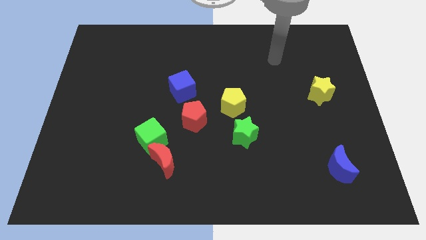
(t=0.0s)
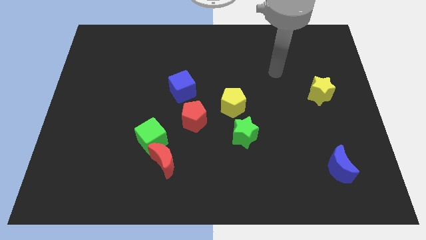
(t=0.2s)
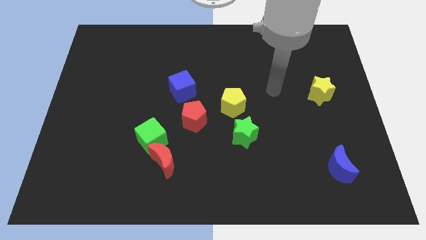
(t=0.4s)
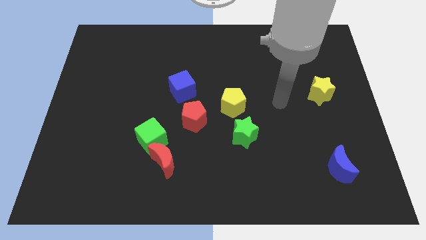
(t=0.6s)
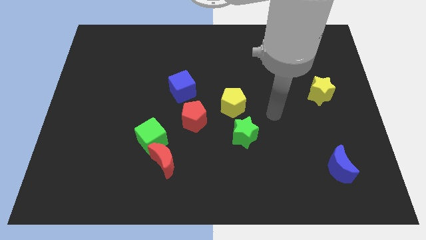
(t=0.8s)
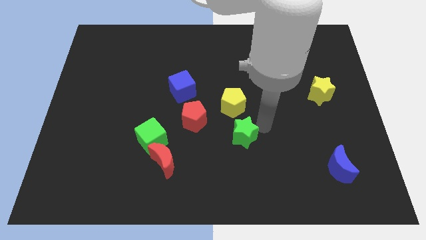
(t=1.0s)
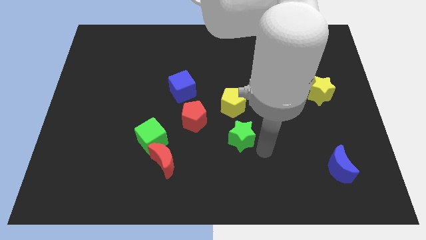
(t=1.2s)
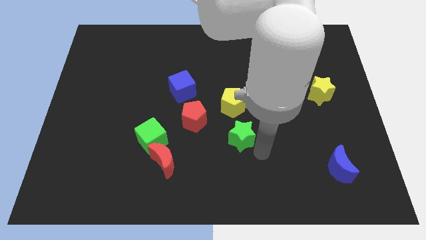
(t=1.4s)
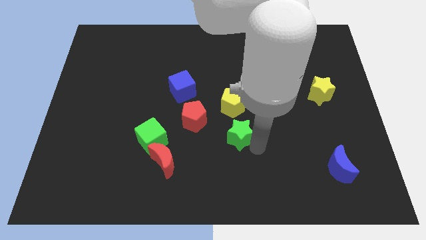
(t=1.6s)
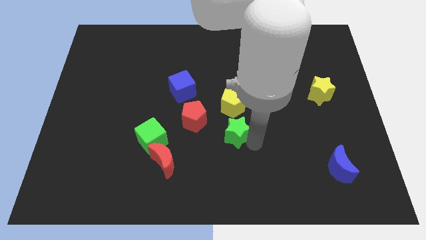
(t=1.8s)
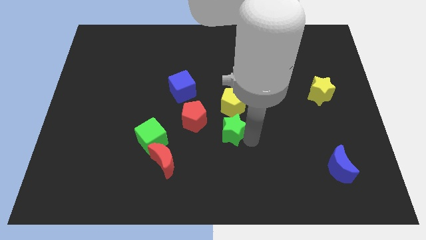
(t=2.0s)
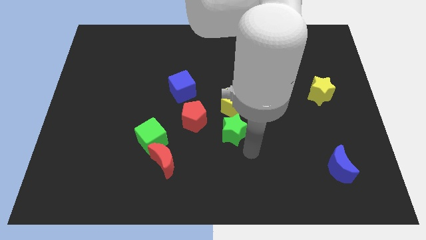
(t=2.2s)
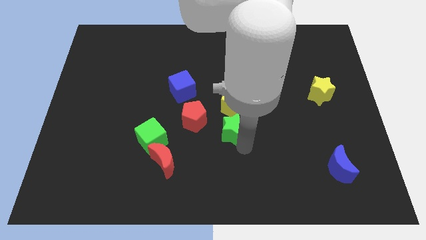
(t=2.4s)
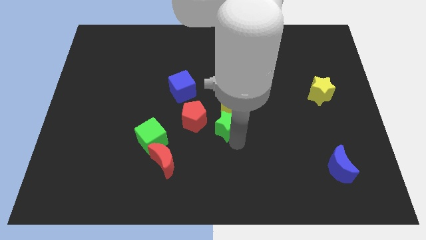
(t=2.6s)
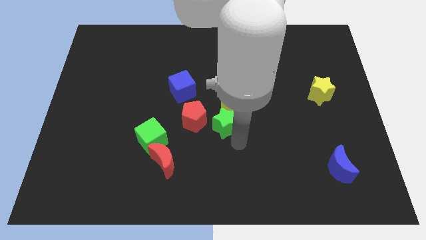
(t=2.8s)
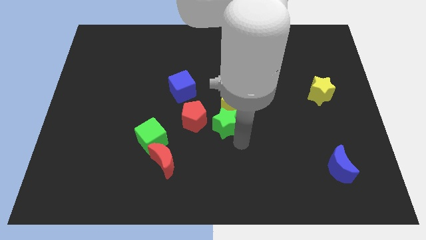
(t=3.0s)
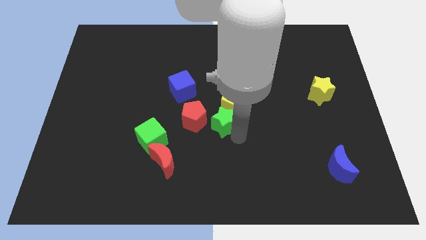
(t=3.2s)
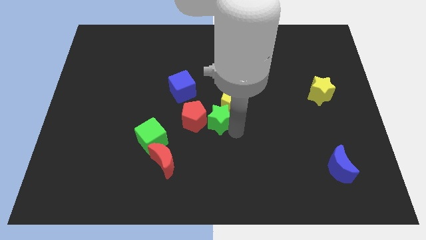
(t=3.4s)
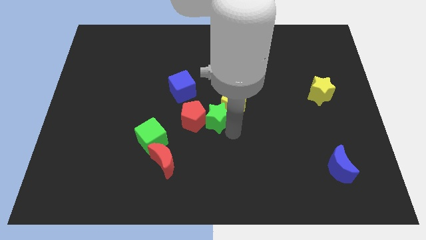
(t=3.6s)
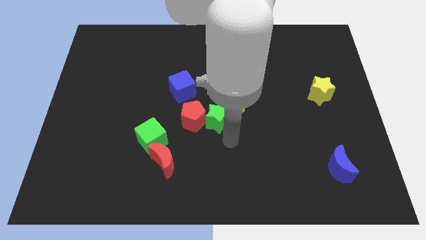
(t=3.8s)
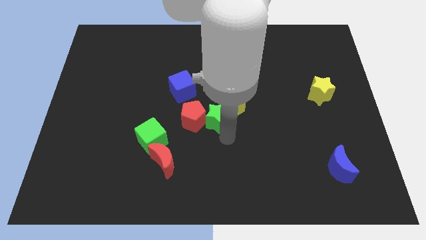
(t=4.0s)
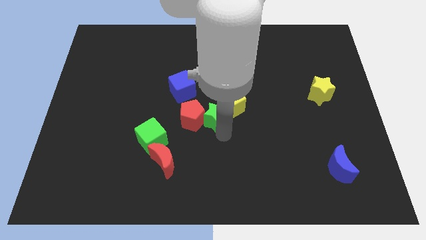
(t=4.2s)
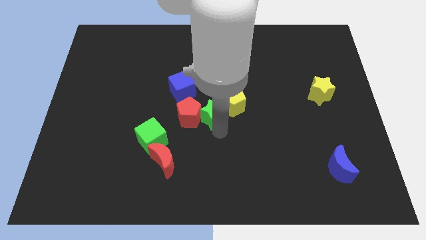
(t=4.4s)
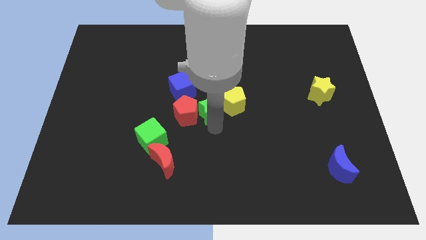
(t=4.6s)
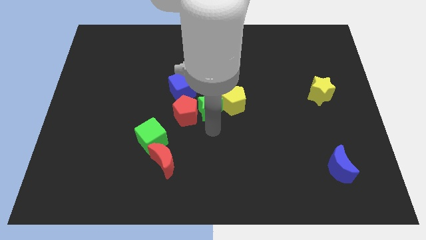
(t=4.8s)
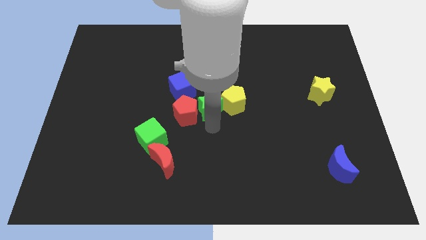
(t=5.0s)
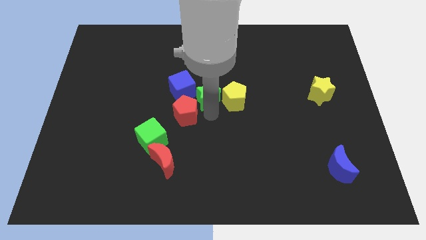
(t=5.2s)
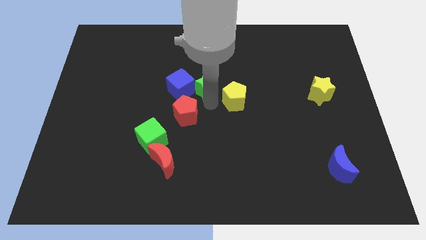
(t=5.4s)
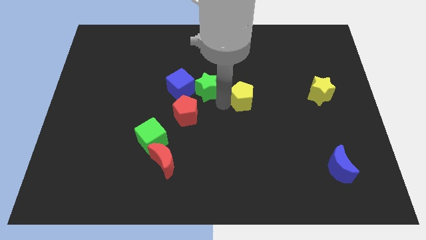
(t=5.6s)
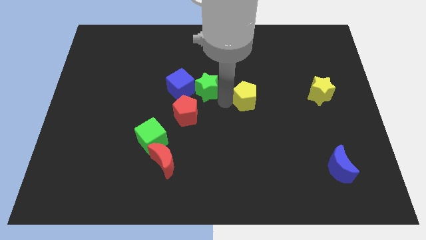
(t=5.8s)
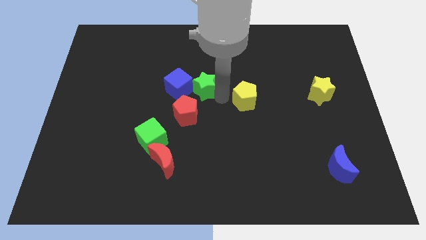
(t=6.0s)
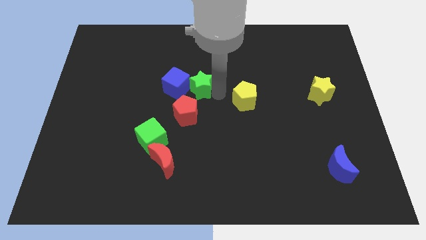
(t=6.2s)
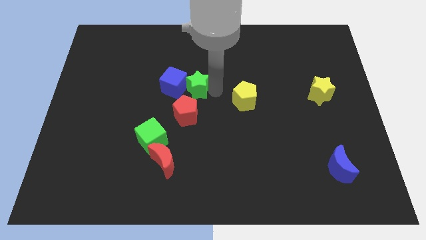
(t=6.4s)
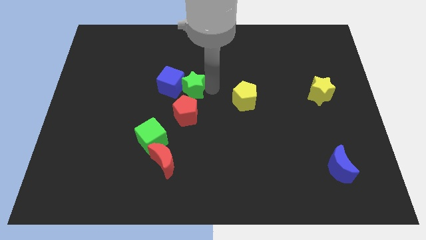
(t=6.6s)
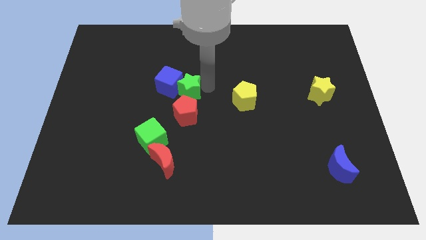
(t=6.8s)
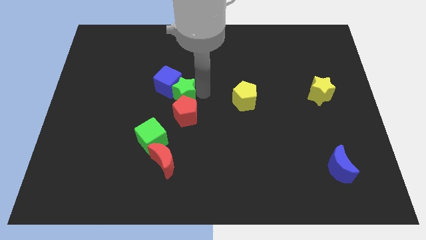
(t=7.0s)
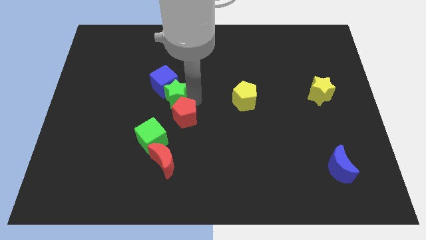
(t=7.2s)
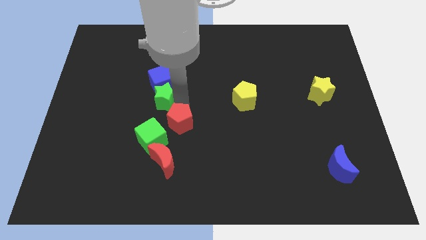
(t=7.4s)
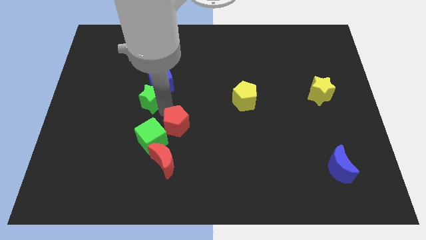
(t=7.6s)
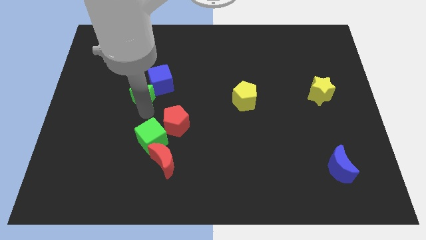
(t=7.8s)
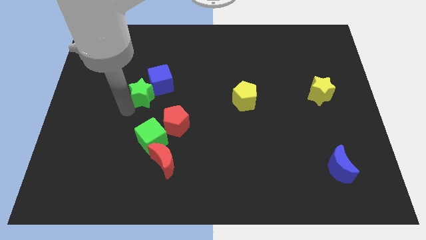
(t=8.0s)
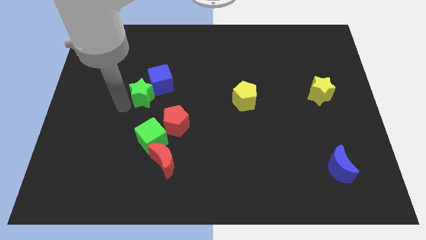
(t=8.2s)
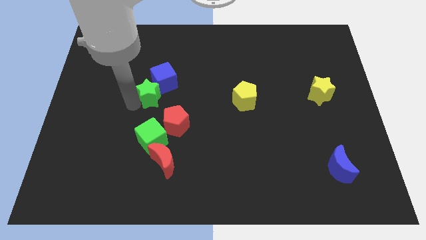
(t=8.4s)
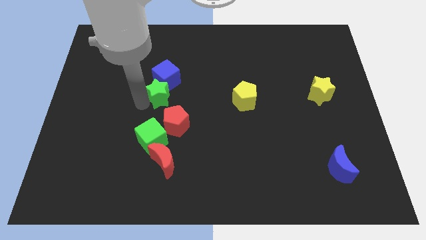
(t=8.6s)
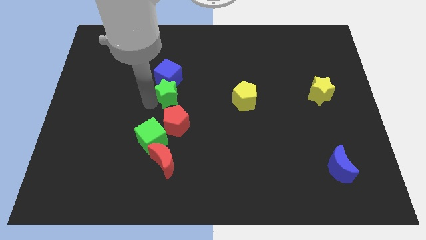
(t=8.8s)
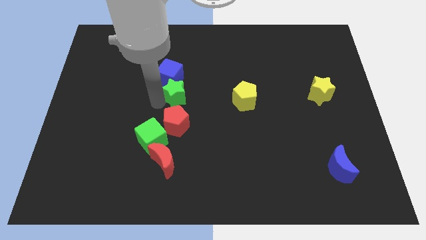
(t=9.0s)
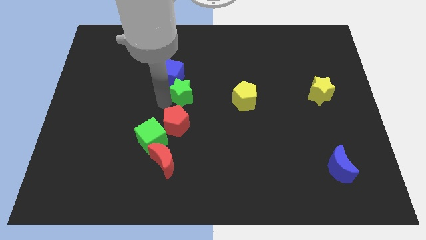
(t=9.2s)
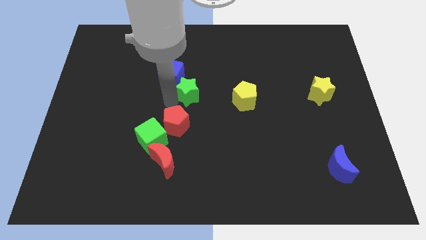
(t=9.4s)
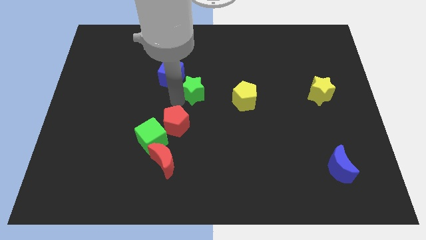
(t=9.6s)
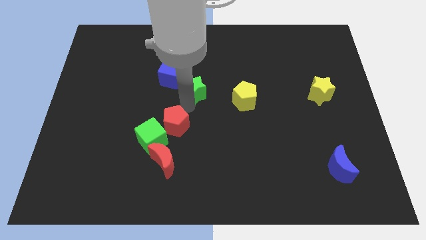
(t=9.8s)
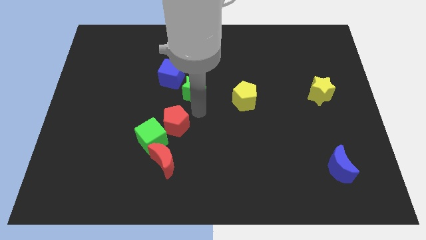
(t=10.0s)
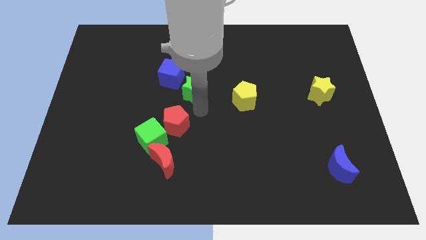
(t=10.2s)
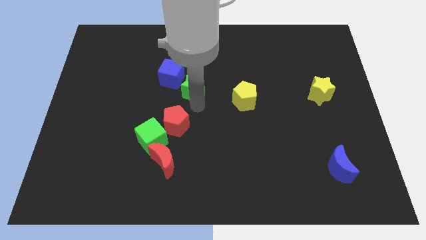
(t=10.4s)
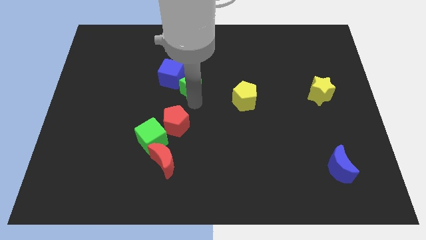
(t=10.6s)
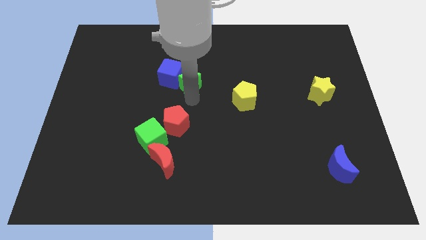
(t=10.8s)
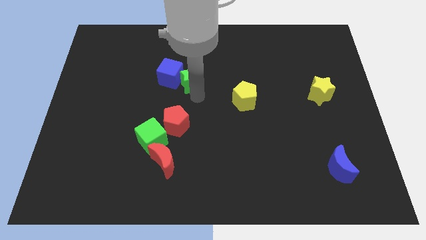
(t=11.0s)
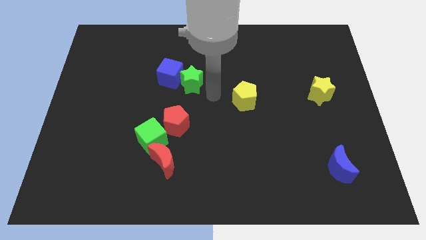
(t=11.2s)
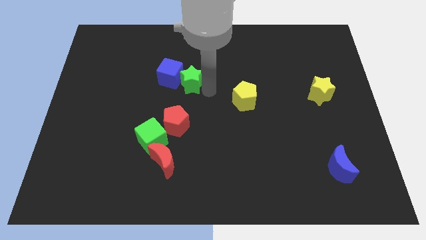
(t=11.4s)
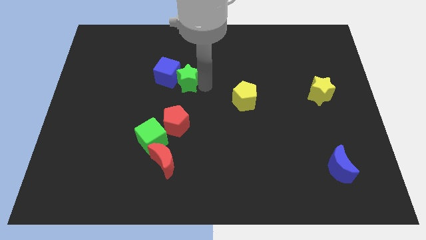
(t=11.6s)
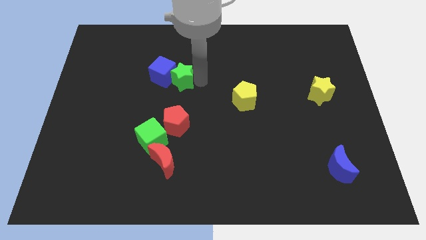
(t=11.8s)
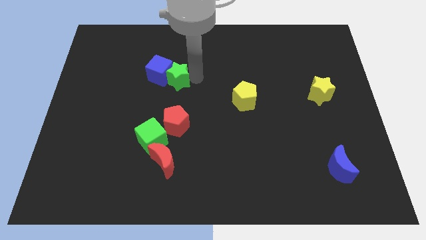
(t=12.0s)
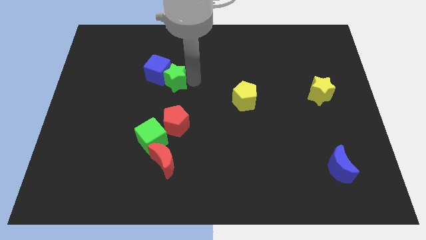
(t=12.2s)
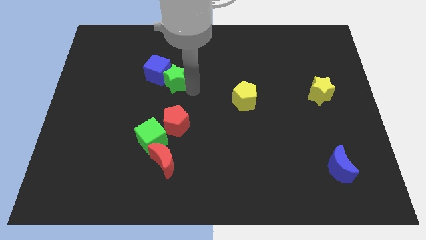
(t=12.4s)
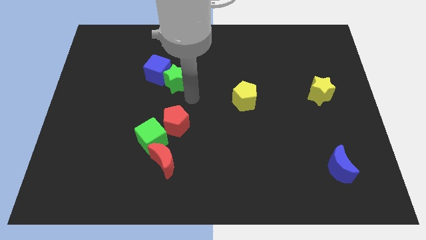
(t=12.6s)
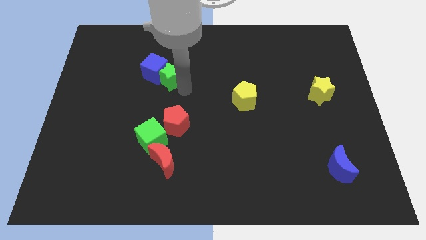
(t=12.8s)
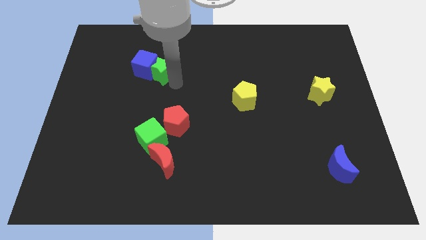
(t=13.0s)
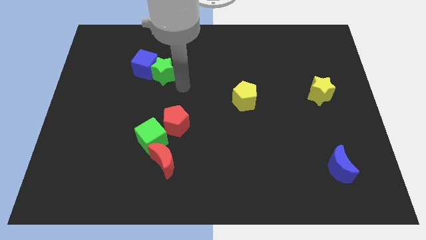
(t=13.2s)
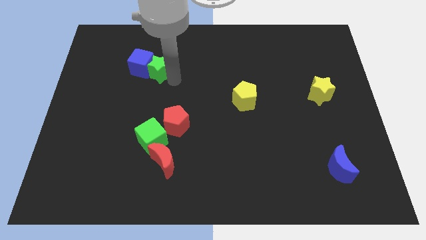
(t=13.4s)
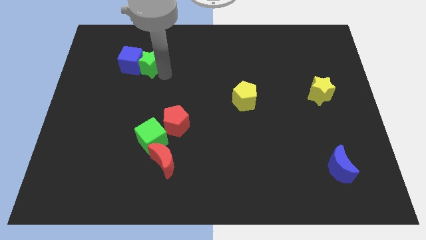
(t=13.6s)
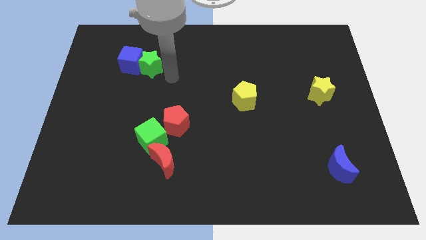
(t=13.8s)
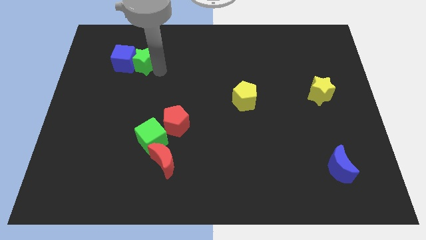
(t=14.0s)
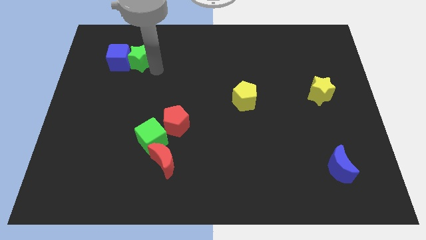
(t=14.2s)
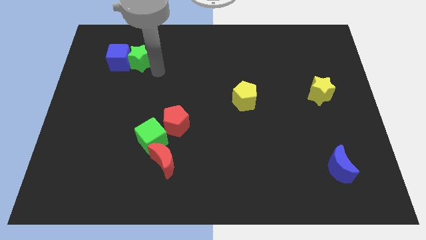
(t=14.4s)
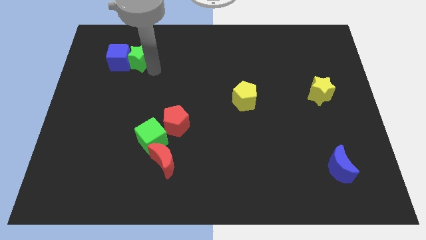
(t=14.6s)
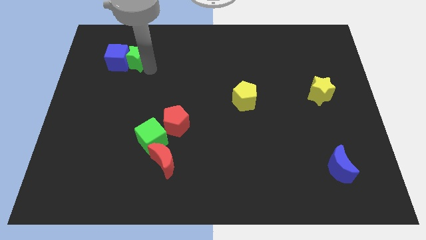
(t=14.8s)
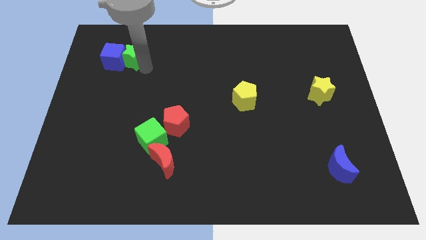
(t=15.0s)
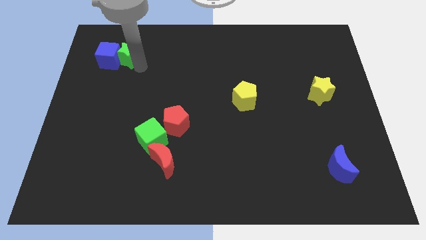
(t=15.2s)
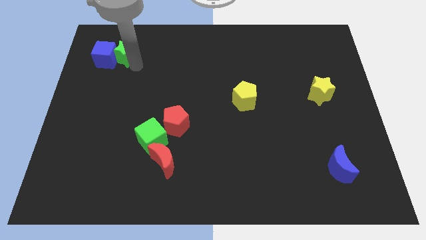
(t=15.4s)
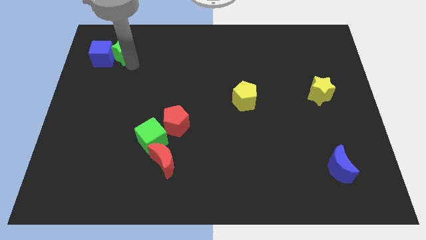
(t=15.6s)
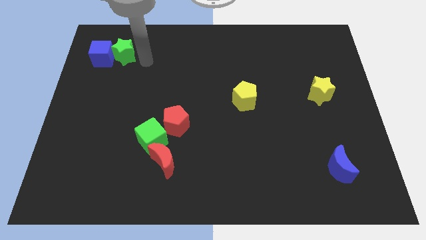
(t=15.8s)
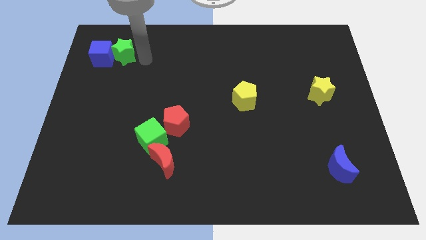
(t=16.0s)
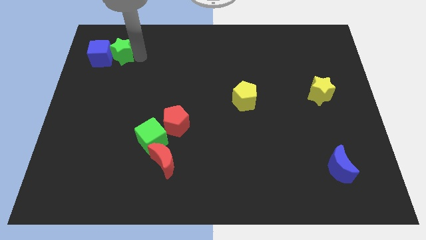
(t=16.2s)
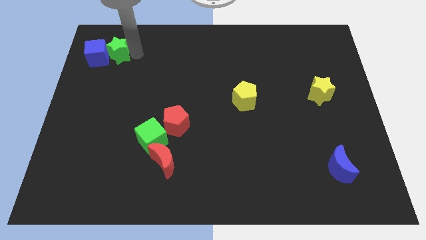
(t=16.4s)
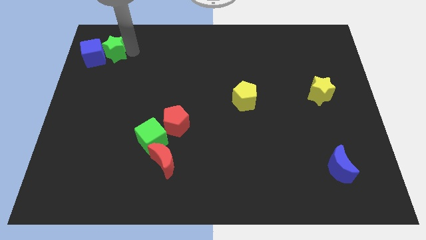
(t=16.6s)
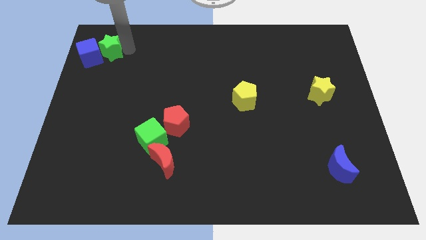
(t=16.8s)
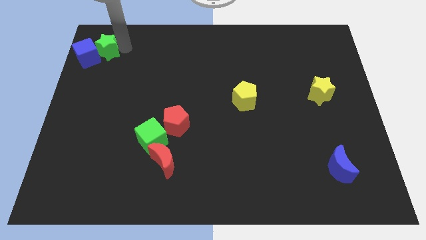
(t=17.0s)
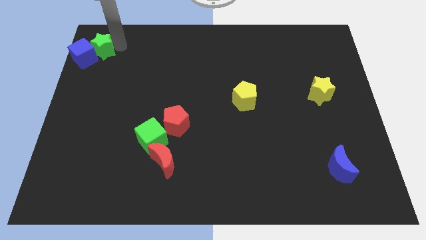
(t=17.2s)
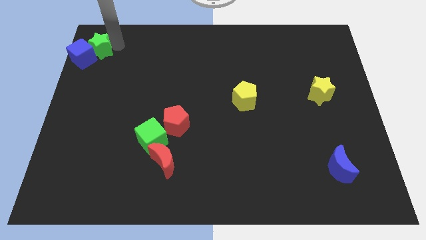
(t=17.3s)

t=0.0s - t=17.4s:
slide the green star to the top left
